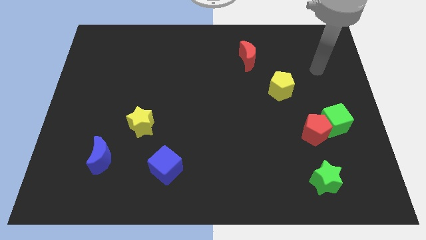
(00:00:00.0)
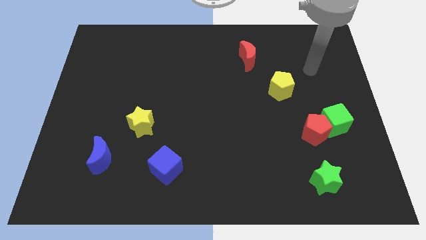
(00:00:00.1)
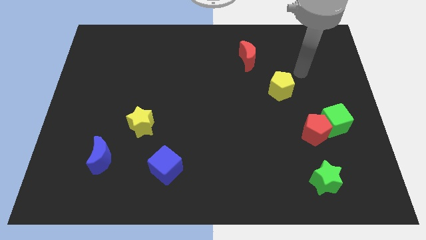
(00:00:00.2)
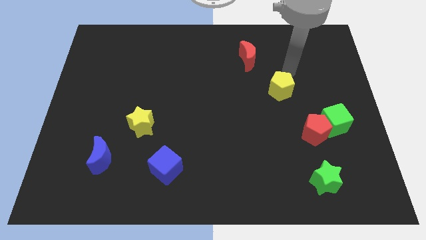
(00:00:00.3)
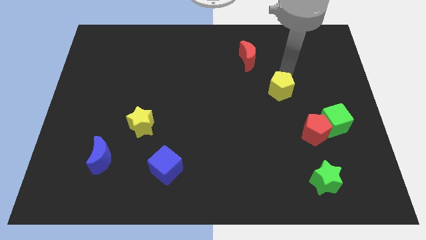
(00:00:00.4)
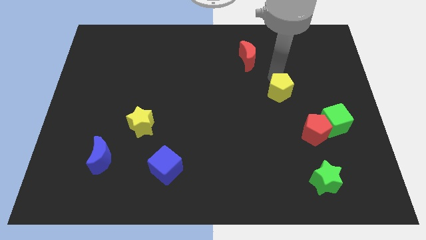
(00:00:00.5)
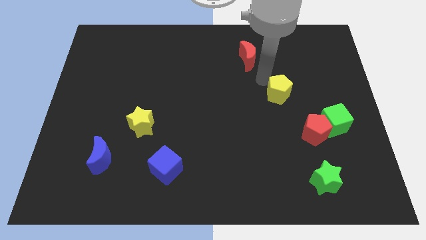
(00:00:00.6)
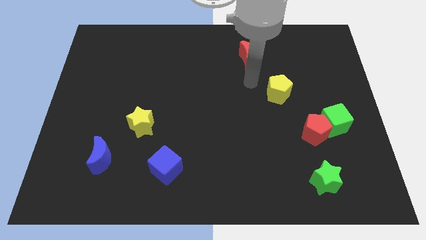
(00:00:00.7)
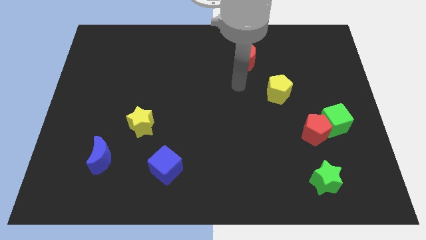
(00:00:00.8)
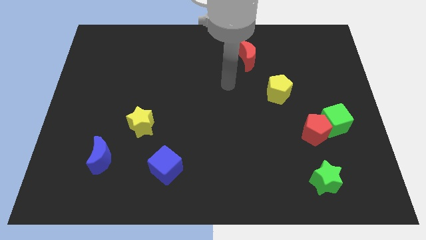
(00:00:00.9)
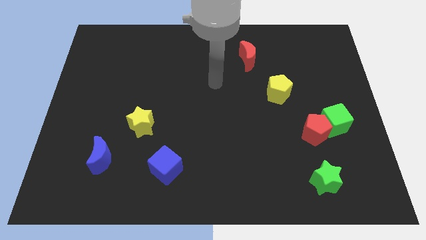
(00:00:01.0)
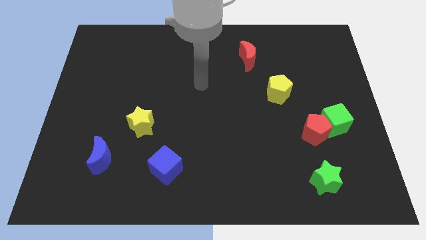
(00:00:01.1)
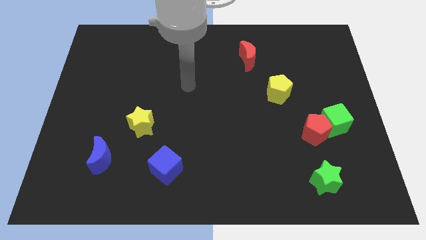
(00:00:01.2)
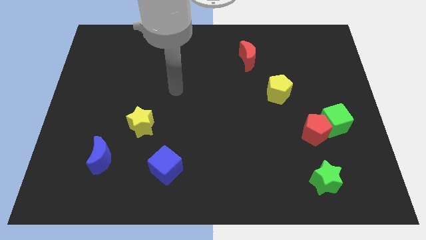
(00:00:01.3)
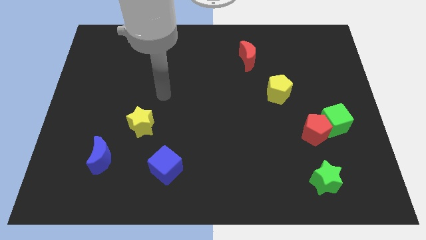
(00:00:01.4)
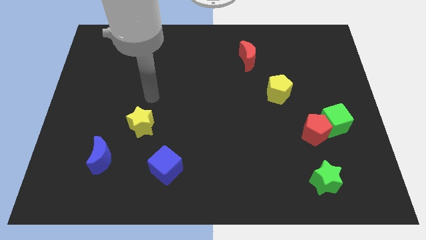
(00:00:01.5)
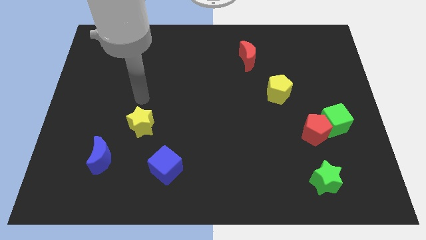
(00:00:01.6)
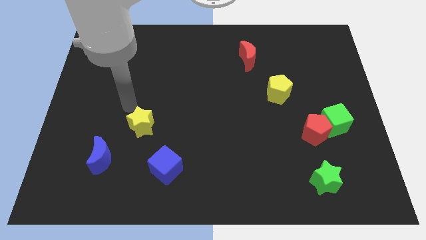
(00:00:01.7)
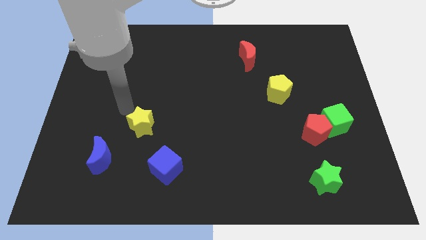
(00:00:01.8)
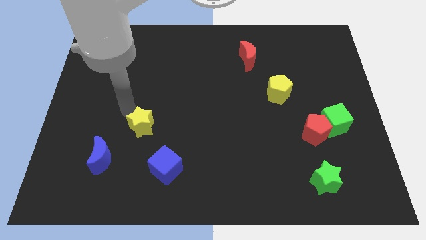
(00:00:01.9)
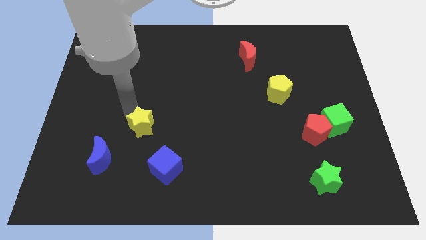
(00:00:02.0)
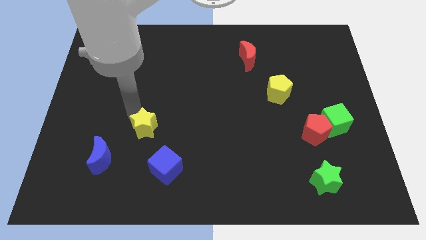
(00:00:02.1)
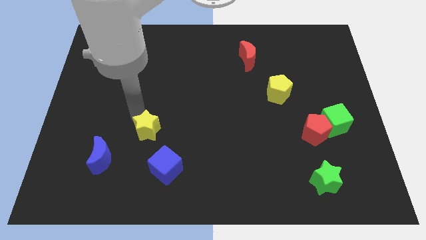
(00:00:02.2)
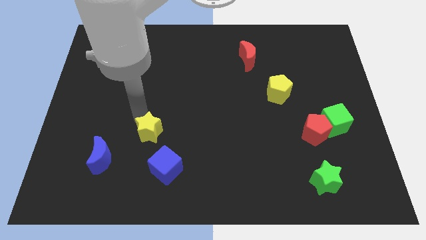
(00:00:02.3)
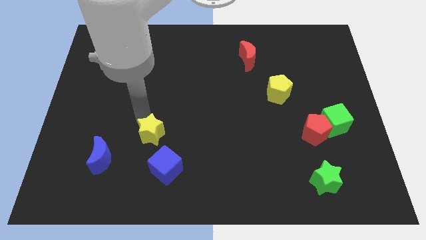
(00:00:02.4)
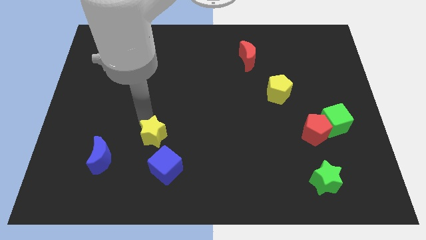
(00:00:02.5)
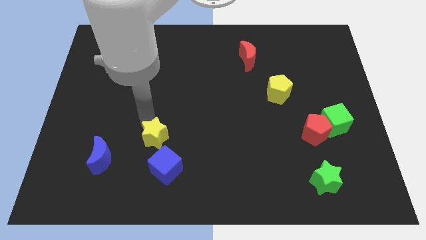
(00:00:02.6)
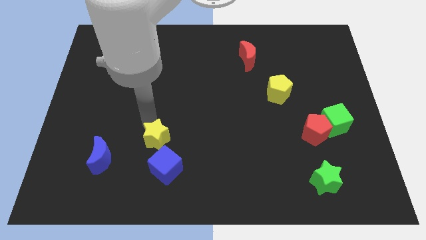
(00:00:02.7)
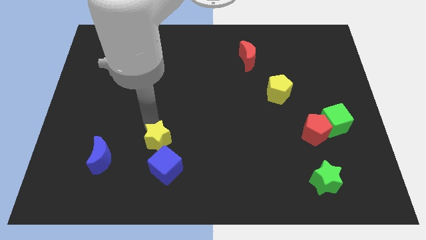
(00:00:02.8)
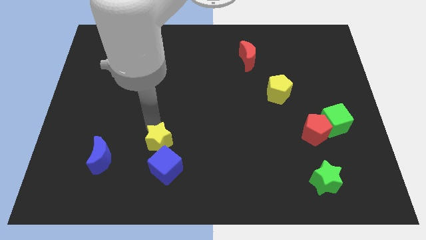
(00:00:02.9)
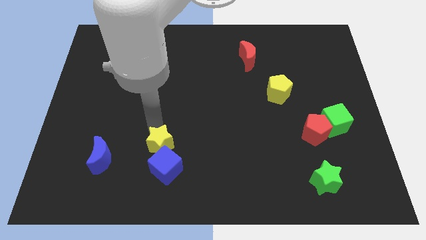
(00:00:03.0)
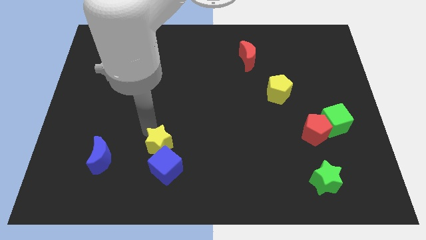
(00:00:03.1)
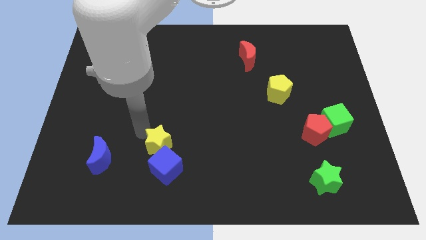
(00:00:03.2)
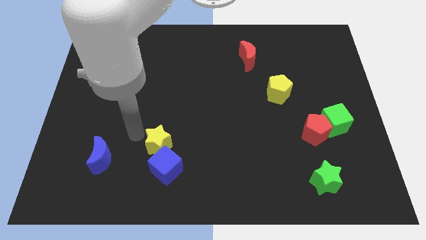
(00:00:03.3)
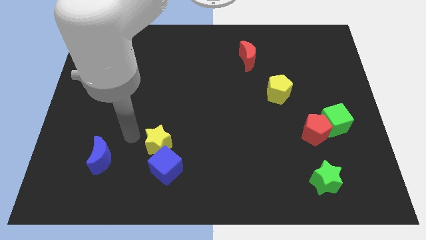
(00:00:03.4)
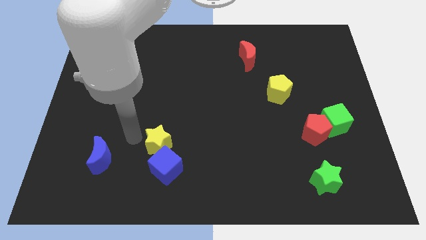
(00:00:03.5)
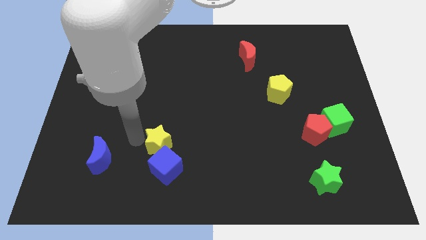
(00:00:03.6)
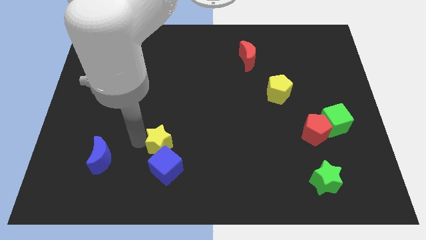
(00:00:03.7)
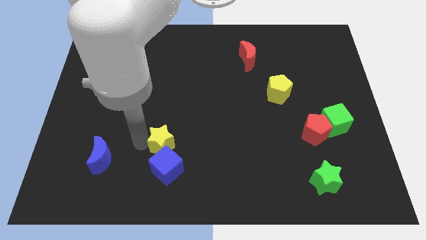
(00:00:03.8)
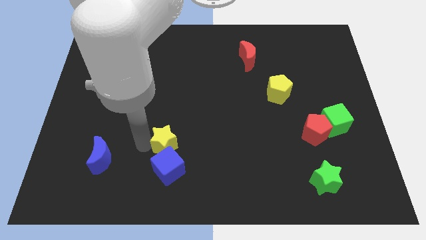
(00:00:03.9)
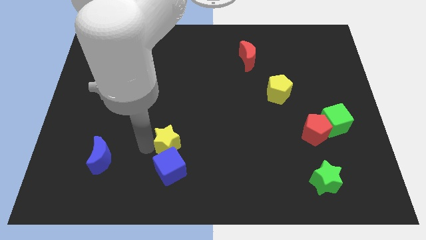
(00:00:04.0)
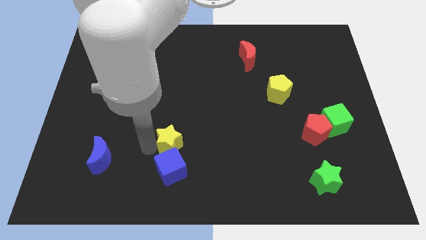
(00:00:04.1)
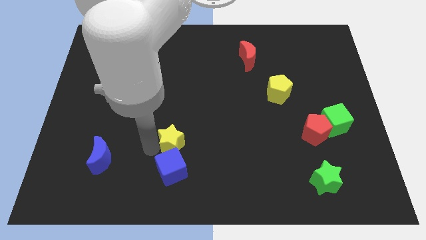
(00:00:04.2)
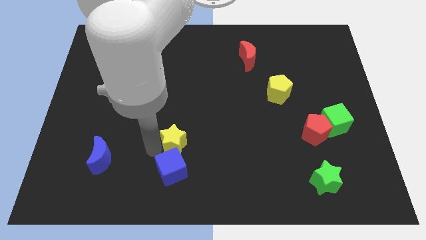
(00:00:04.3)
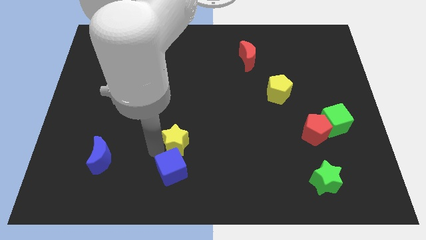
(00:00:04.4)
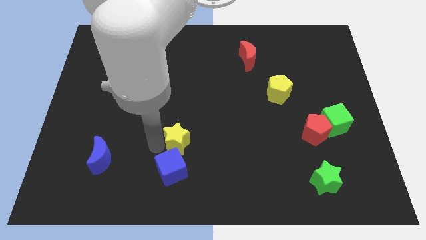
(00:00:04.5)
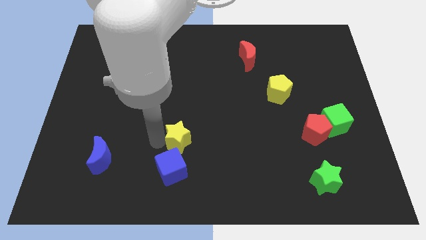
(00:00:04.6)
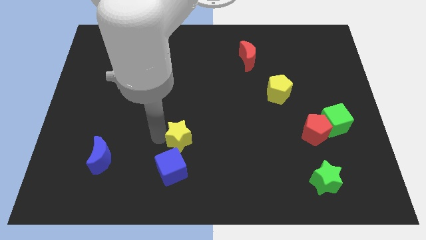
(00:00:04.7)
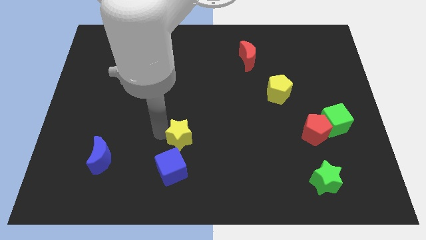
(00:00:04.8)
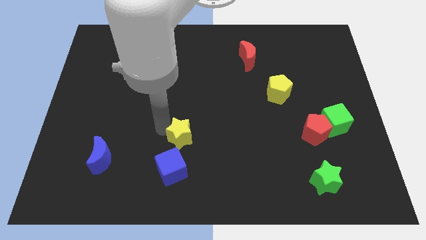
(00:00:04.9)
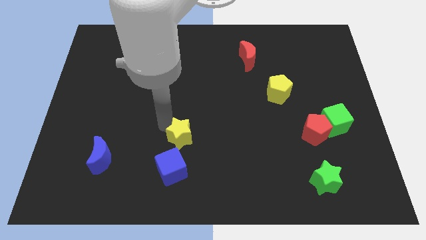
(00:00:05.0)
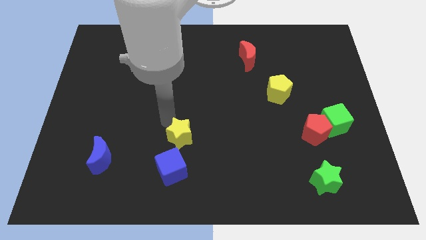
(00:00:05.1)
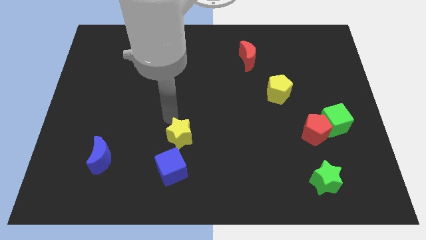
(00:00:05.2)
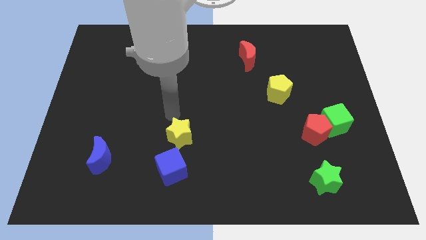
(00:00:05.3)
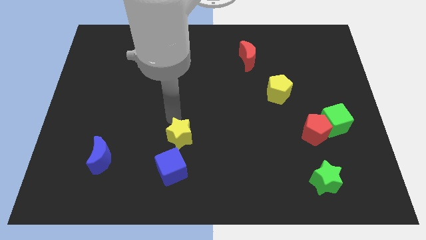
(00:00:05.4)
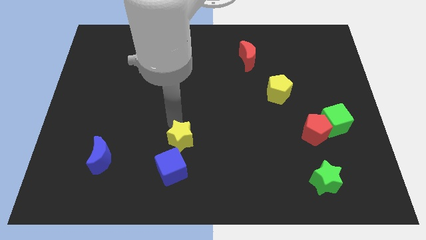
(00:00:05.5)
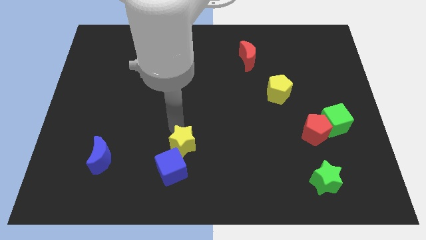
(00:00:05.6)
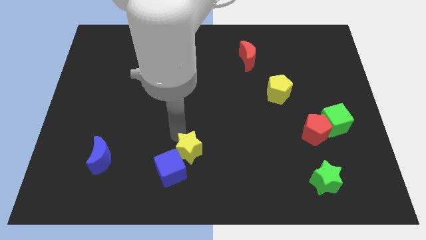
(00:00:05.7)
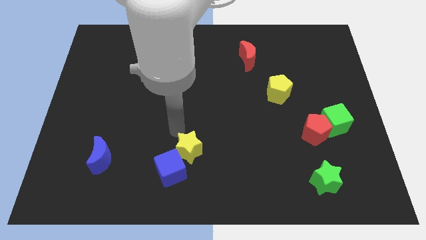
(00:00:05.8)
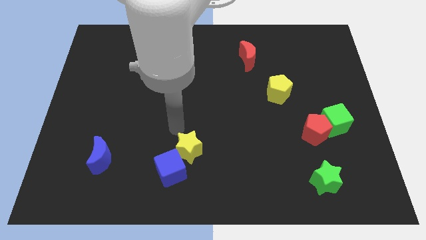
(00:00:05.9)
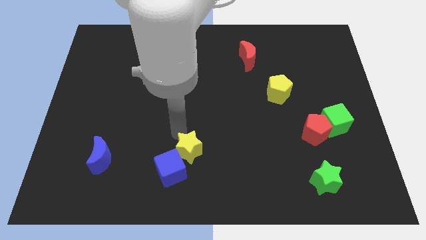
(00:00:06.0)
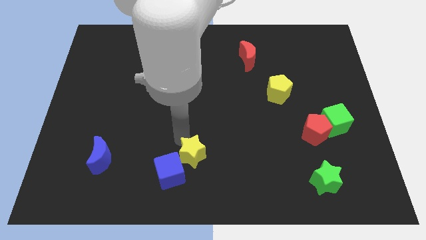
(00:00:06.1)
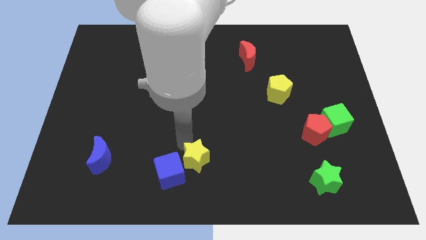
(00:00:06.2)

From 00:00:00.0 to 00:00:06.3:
move the yellow star to the bottom

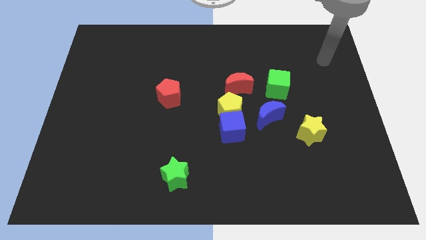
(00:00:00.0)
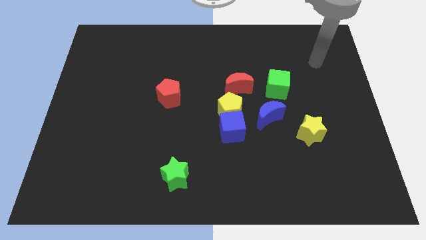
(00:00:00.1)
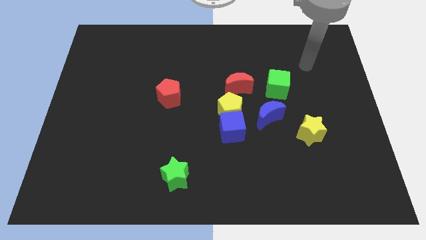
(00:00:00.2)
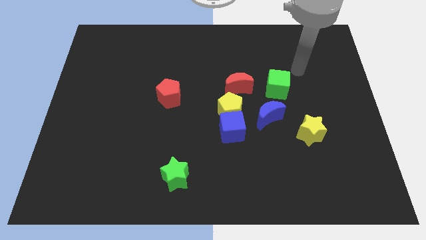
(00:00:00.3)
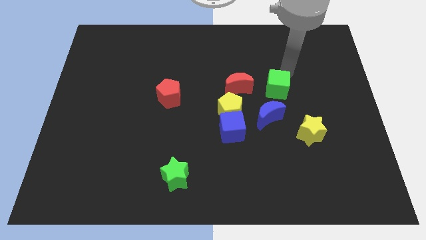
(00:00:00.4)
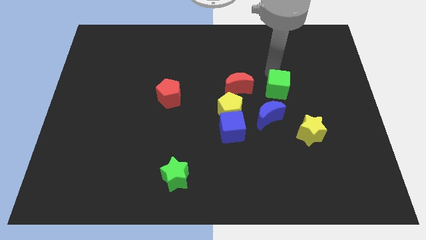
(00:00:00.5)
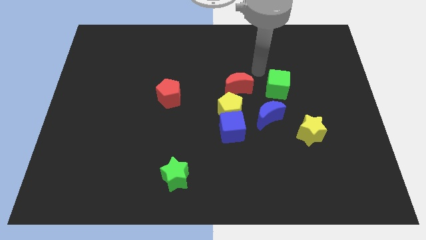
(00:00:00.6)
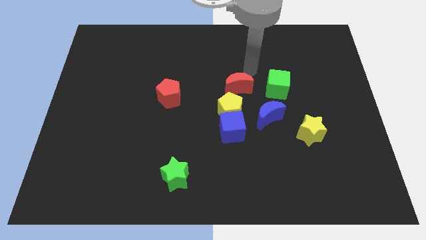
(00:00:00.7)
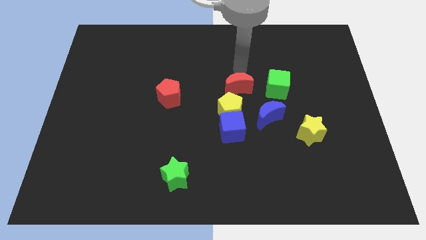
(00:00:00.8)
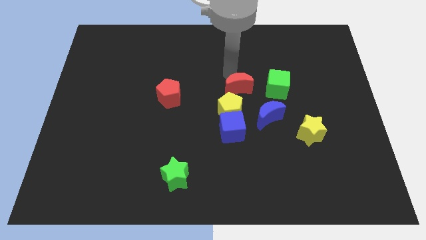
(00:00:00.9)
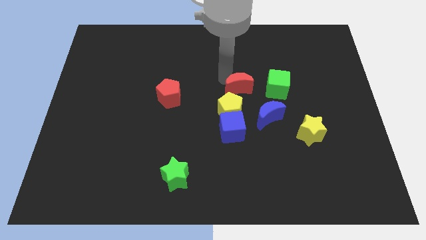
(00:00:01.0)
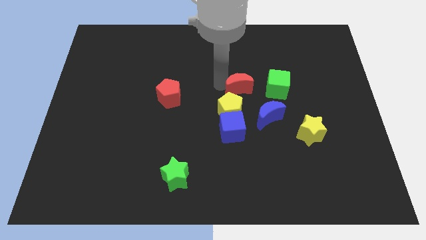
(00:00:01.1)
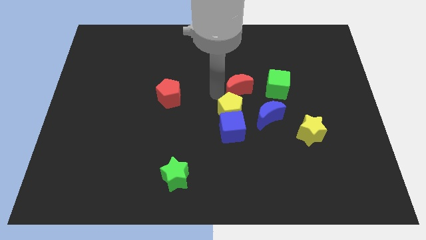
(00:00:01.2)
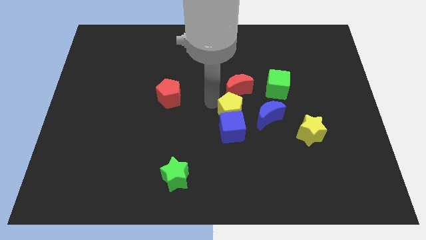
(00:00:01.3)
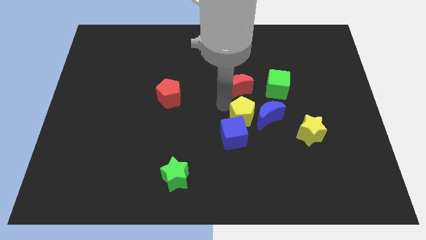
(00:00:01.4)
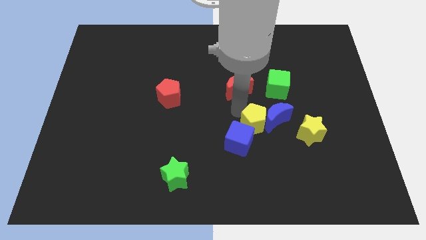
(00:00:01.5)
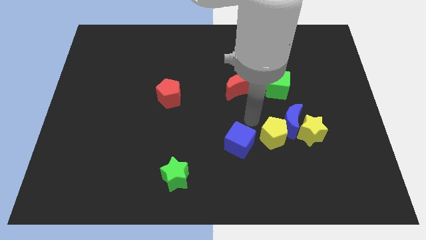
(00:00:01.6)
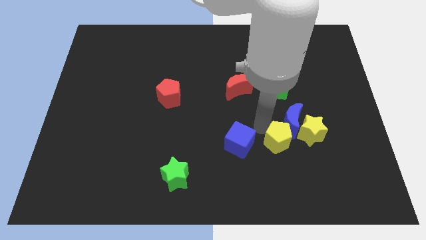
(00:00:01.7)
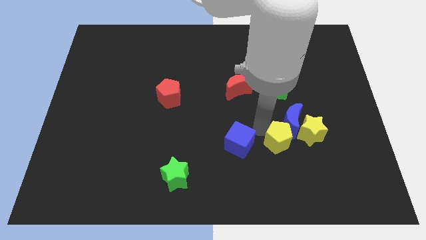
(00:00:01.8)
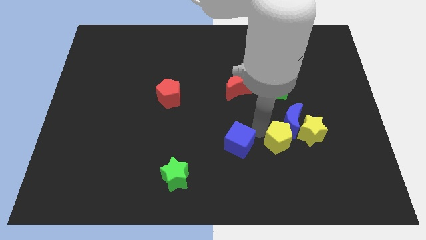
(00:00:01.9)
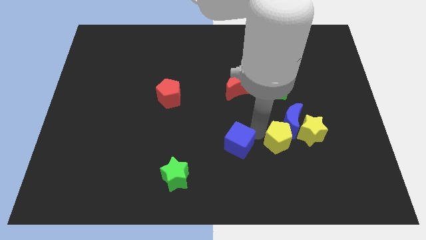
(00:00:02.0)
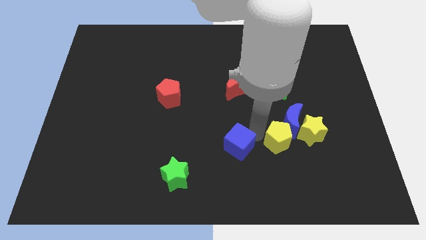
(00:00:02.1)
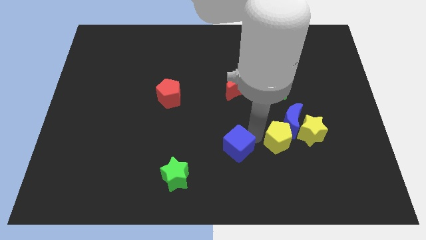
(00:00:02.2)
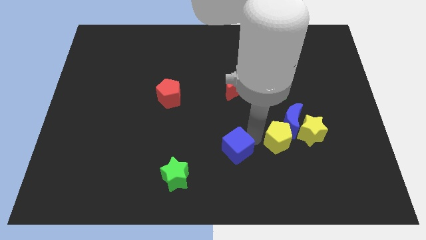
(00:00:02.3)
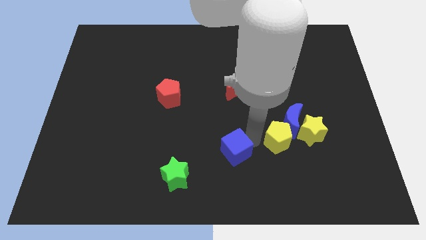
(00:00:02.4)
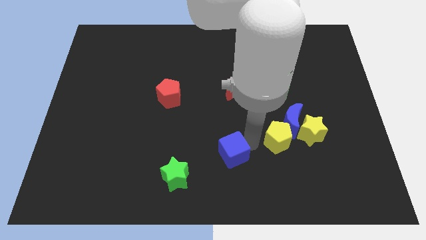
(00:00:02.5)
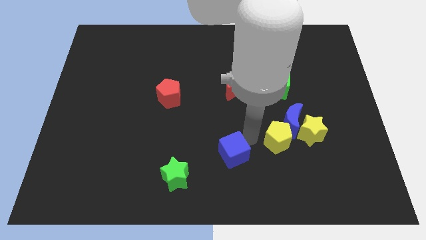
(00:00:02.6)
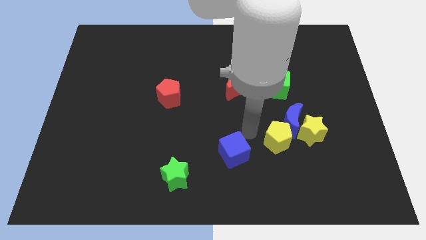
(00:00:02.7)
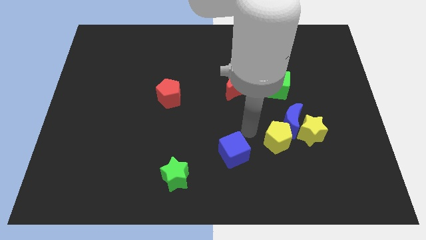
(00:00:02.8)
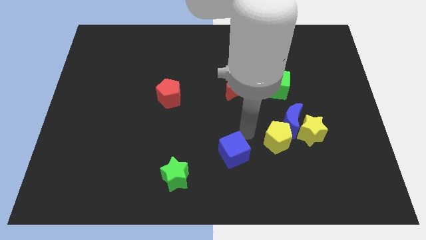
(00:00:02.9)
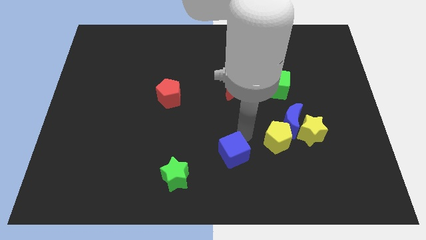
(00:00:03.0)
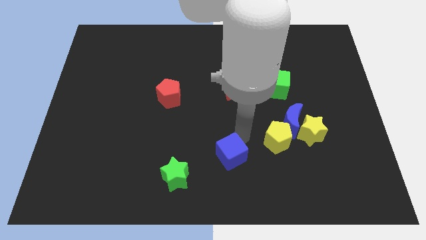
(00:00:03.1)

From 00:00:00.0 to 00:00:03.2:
slide the blue cube to the bottom side
